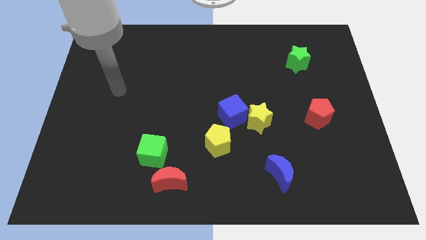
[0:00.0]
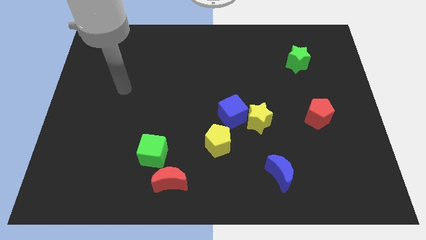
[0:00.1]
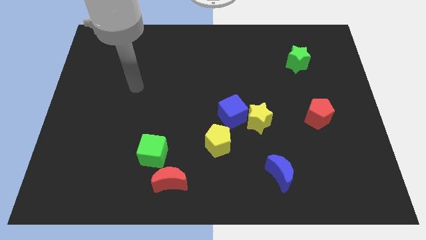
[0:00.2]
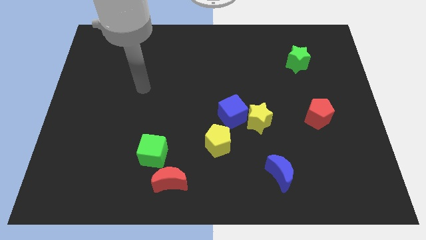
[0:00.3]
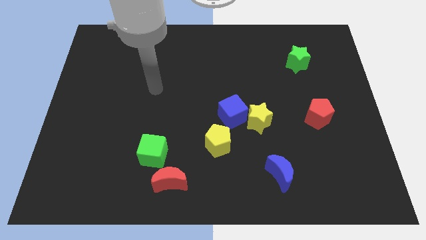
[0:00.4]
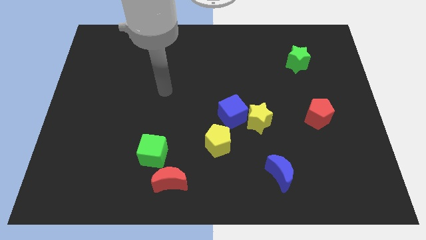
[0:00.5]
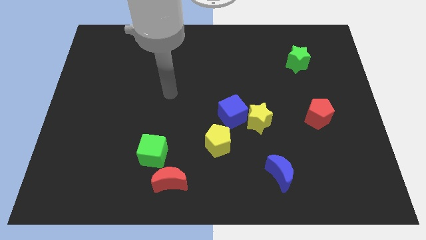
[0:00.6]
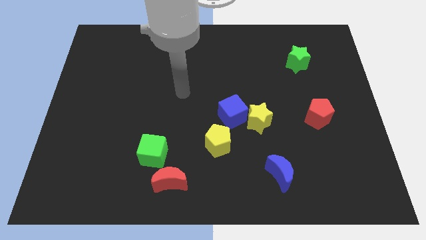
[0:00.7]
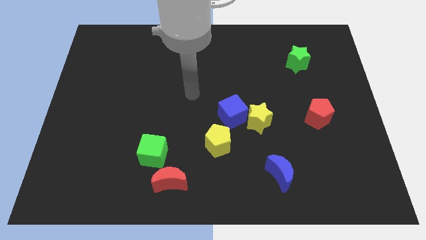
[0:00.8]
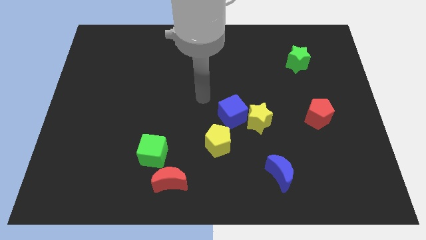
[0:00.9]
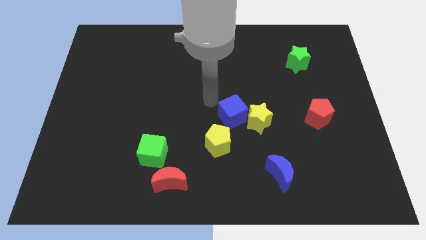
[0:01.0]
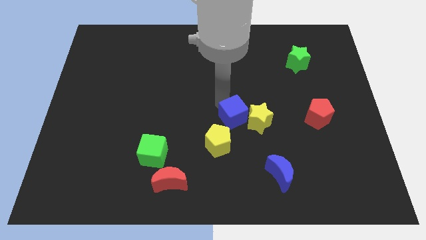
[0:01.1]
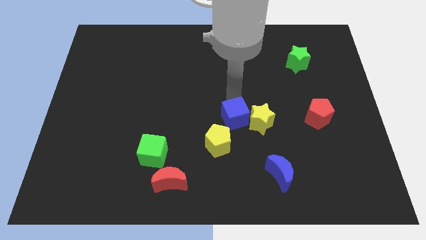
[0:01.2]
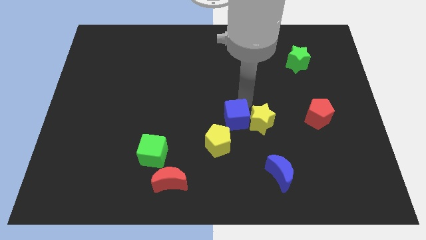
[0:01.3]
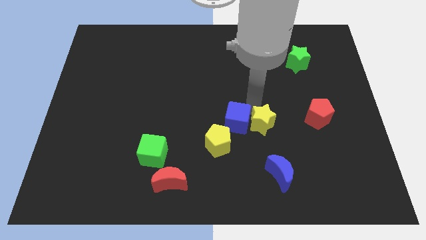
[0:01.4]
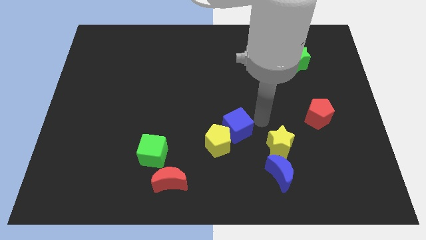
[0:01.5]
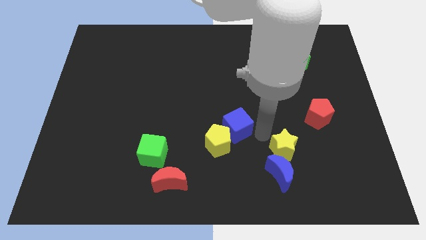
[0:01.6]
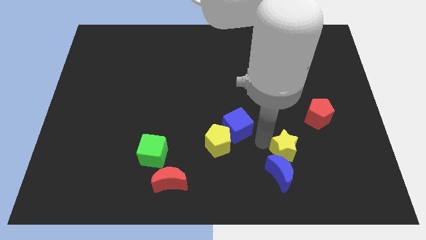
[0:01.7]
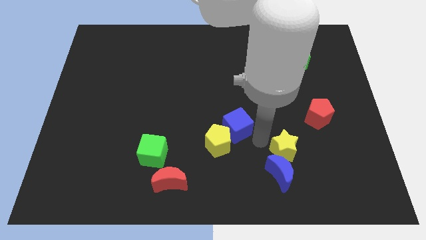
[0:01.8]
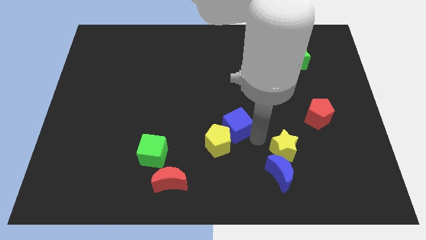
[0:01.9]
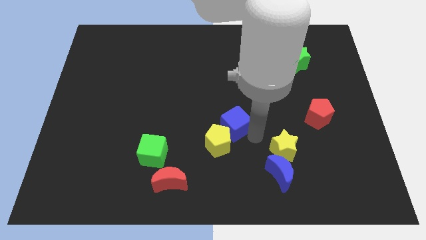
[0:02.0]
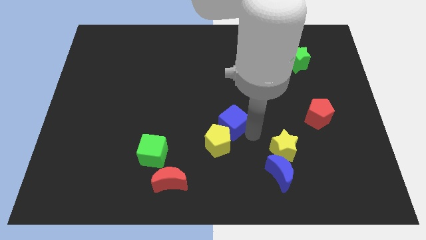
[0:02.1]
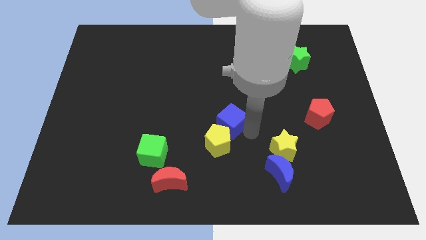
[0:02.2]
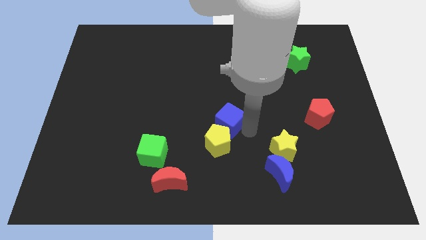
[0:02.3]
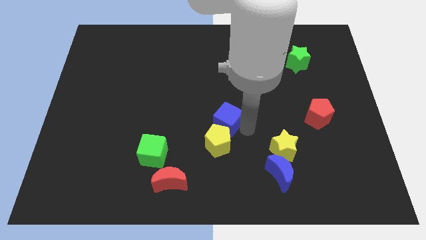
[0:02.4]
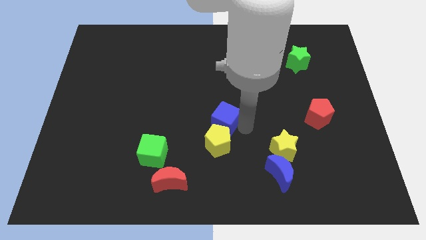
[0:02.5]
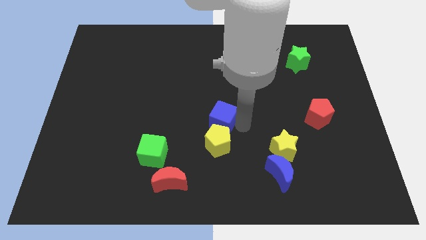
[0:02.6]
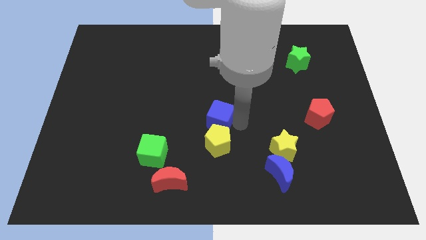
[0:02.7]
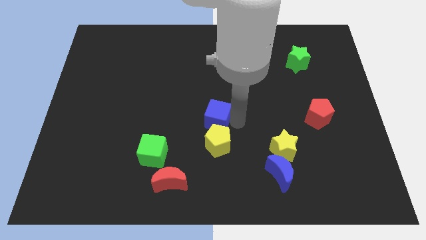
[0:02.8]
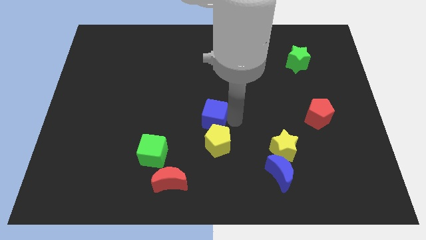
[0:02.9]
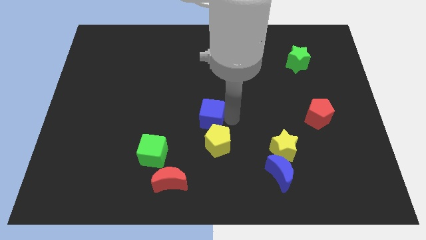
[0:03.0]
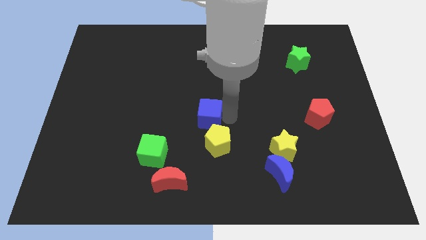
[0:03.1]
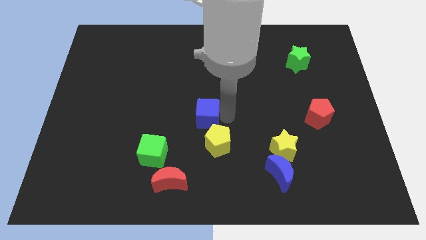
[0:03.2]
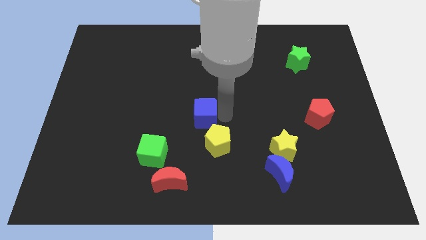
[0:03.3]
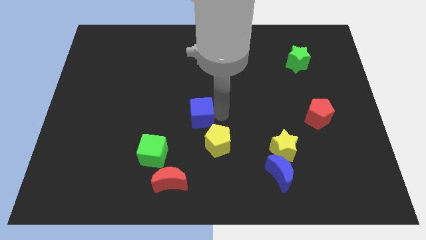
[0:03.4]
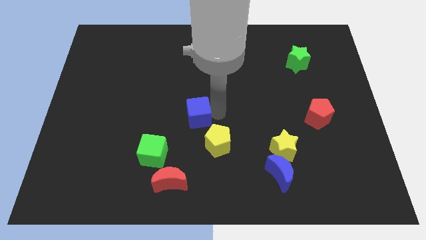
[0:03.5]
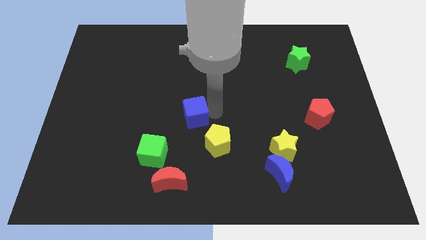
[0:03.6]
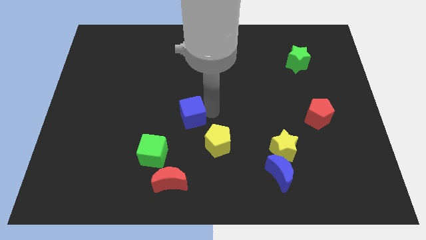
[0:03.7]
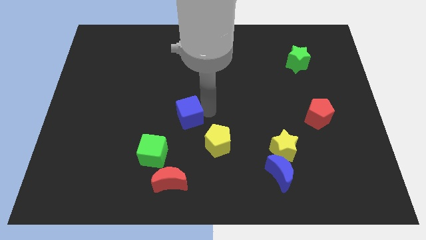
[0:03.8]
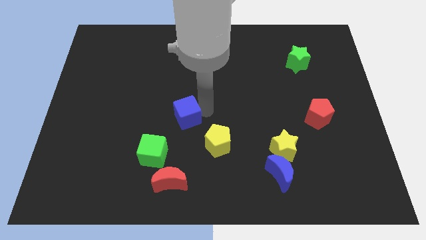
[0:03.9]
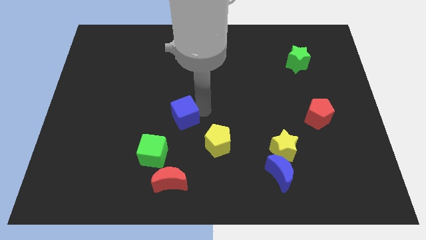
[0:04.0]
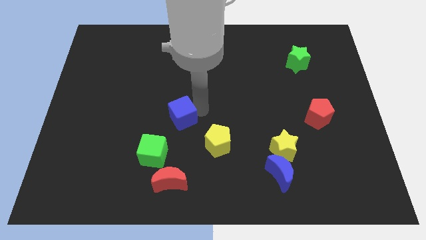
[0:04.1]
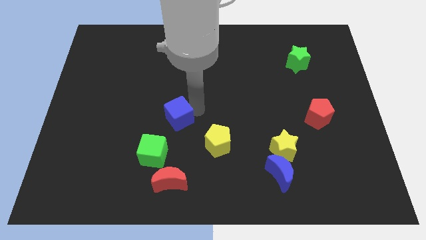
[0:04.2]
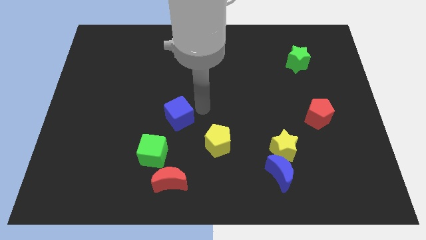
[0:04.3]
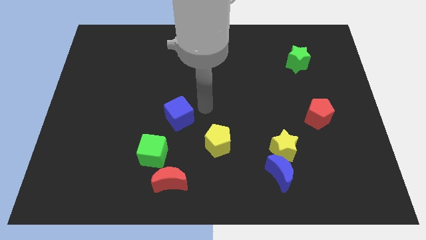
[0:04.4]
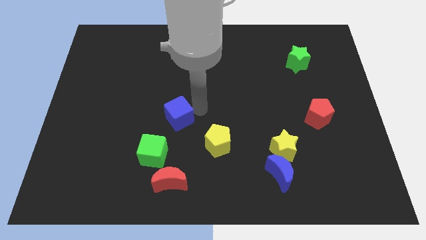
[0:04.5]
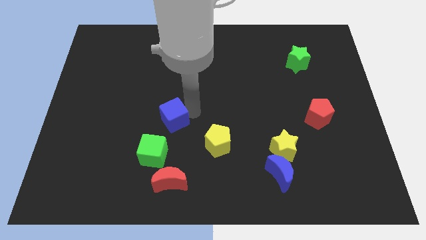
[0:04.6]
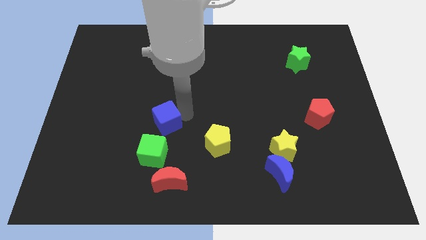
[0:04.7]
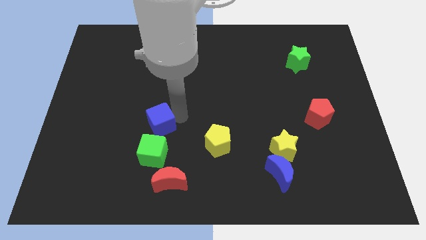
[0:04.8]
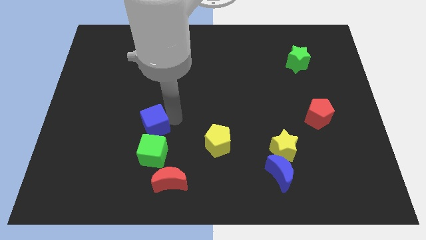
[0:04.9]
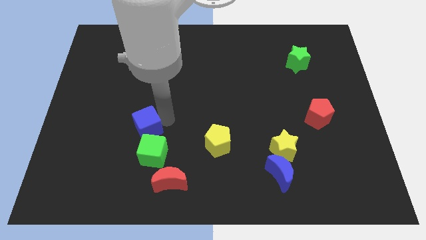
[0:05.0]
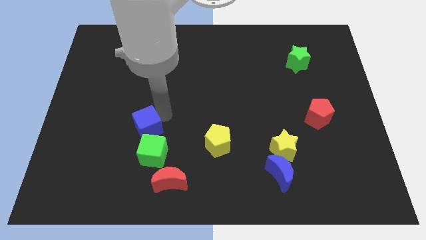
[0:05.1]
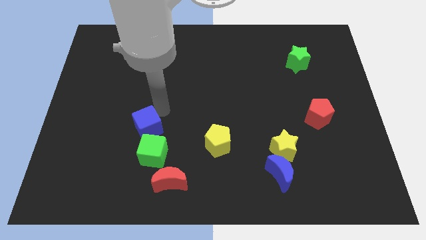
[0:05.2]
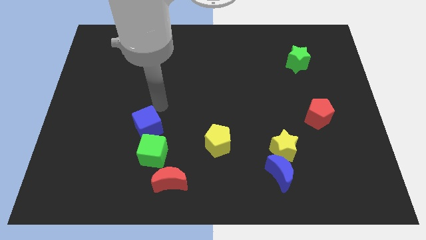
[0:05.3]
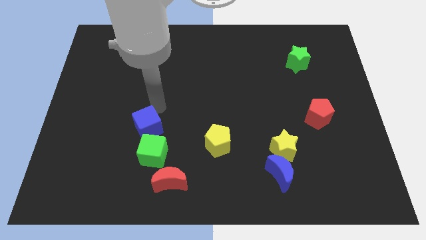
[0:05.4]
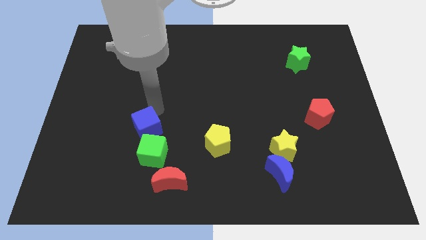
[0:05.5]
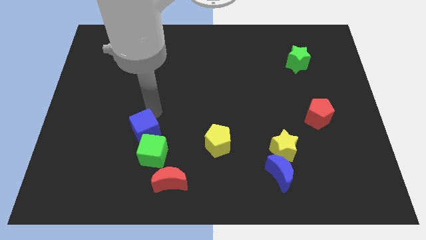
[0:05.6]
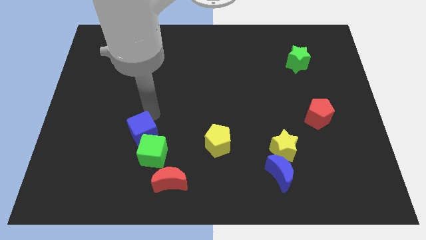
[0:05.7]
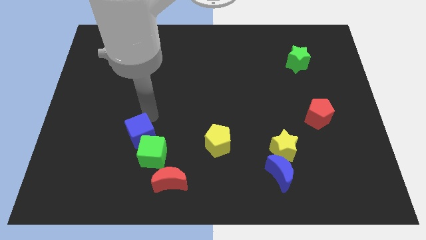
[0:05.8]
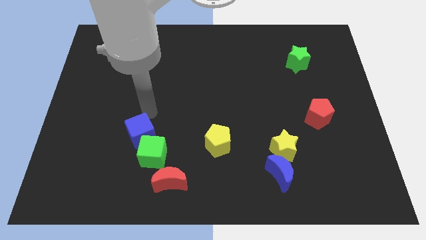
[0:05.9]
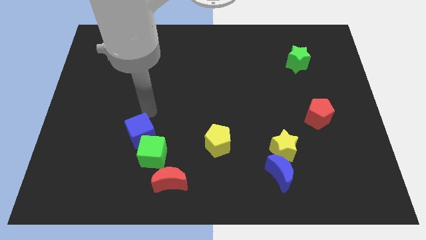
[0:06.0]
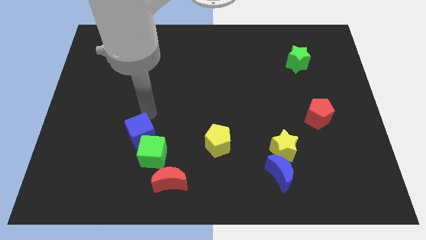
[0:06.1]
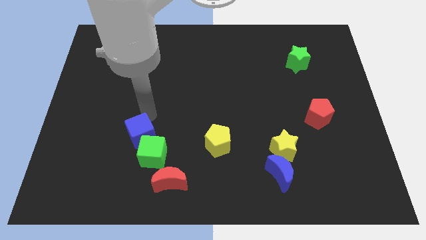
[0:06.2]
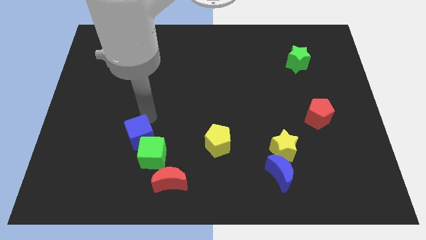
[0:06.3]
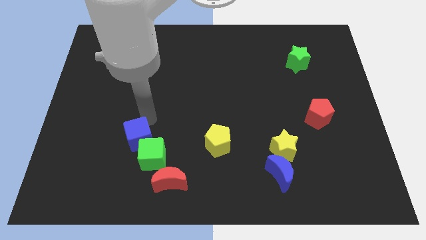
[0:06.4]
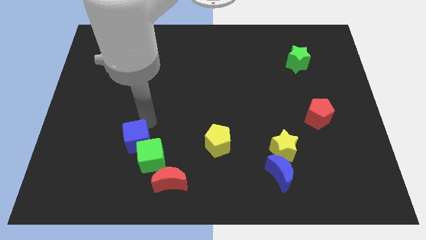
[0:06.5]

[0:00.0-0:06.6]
slide the blue cube diagonally up and to the left of the red moon
